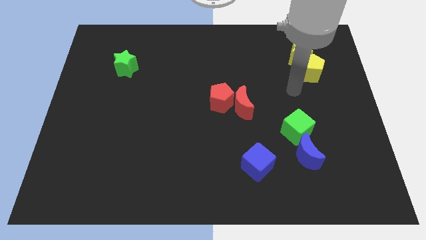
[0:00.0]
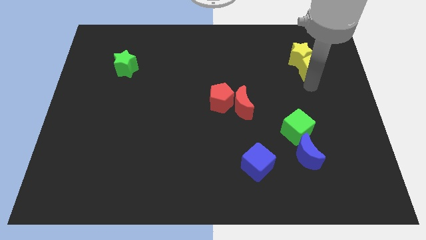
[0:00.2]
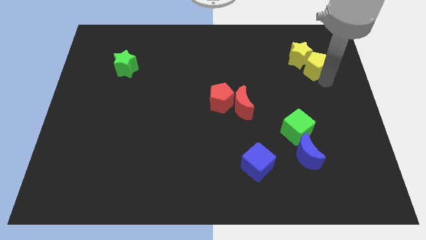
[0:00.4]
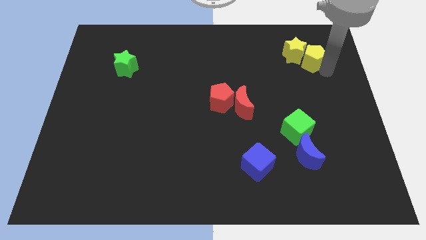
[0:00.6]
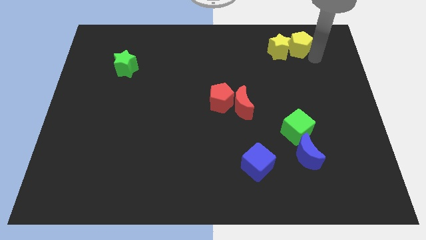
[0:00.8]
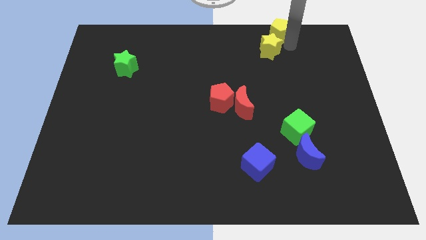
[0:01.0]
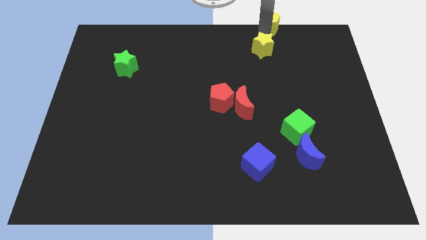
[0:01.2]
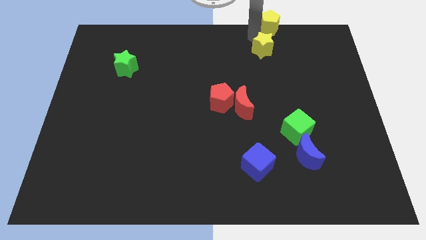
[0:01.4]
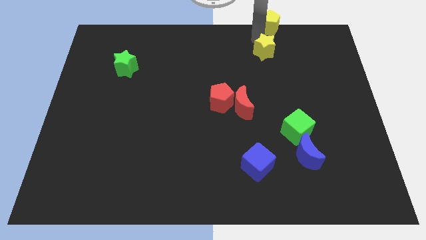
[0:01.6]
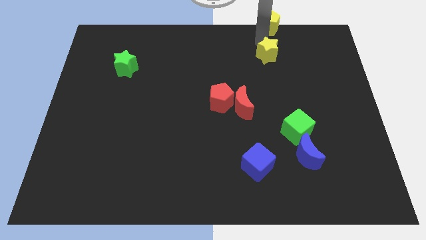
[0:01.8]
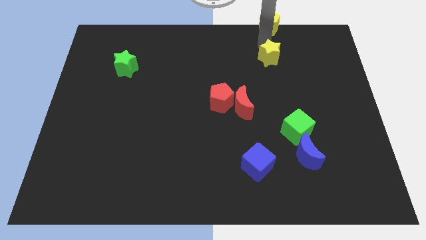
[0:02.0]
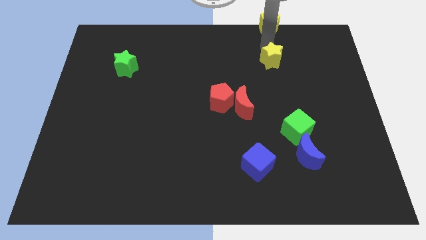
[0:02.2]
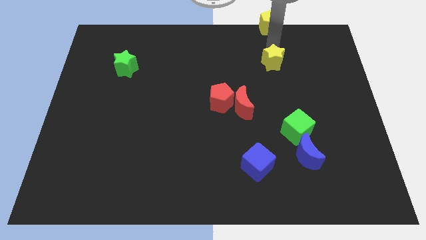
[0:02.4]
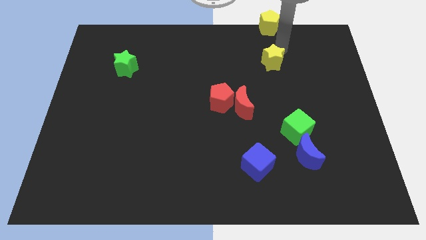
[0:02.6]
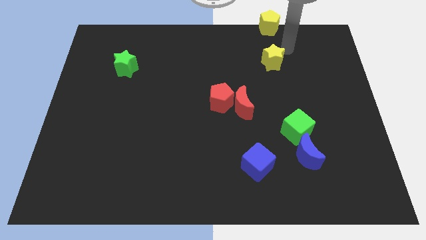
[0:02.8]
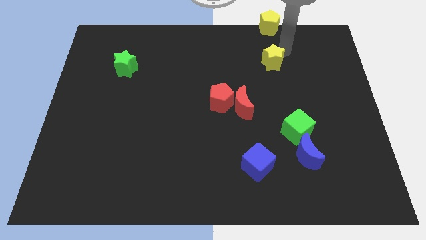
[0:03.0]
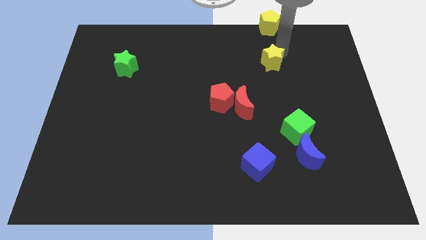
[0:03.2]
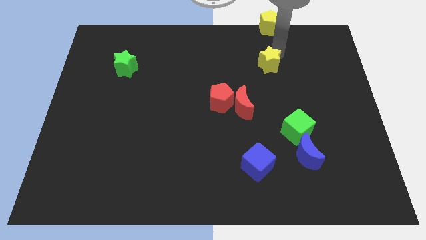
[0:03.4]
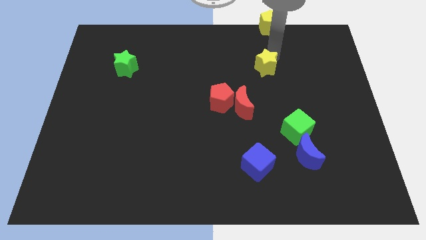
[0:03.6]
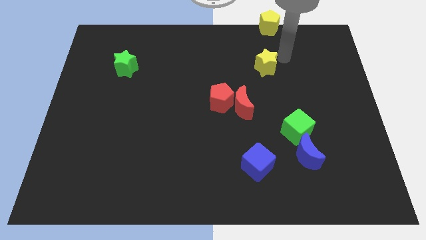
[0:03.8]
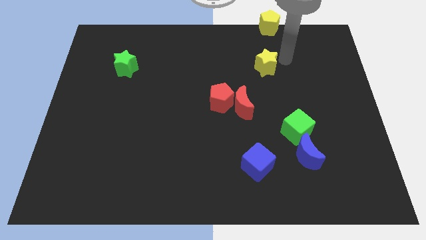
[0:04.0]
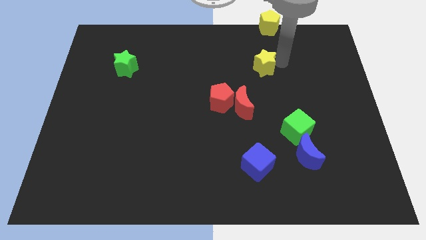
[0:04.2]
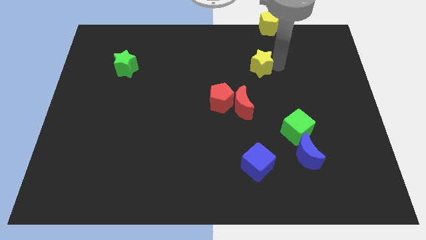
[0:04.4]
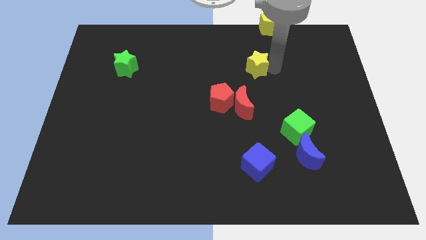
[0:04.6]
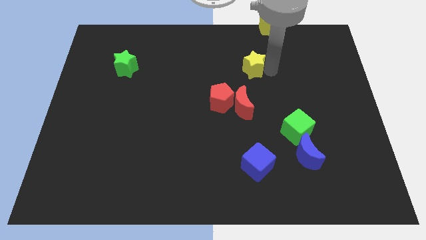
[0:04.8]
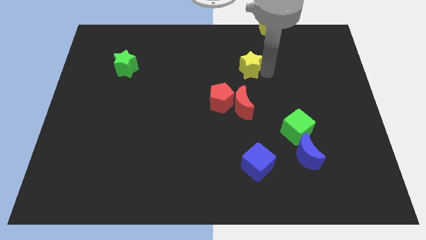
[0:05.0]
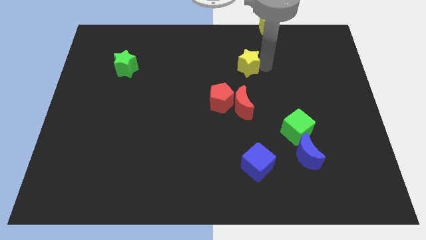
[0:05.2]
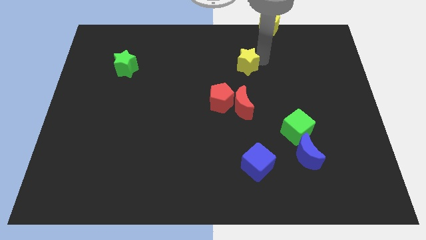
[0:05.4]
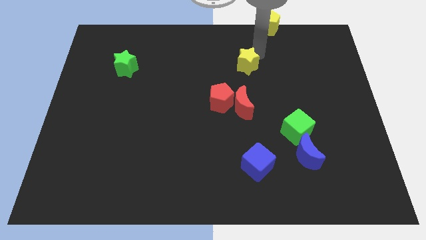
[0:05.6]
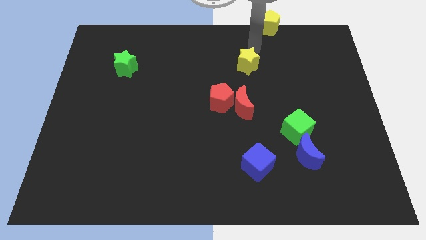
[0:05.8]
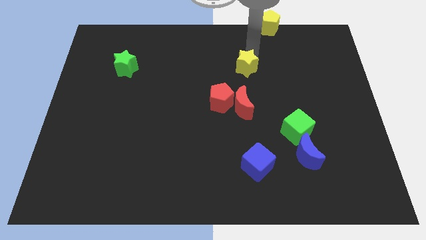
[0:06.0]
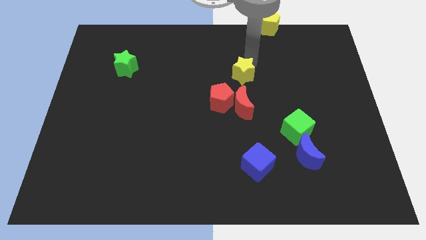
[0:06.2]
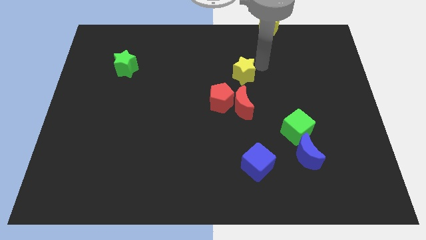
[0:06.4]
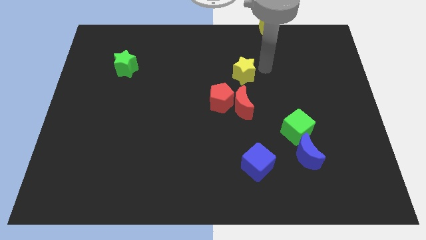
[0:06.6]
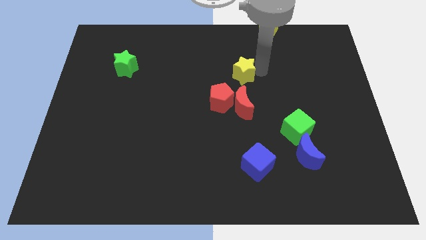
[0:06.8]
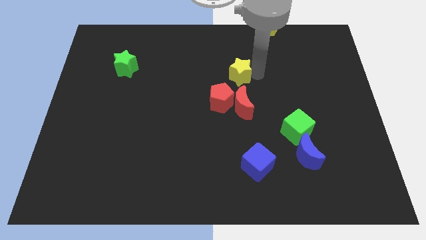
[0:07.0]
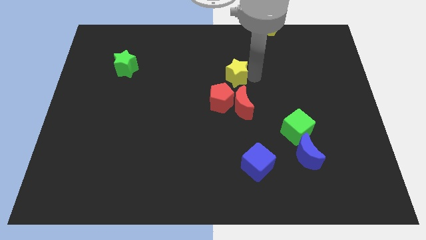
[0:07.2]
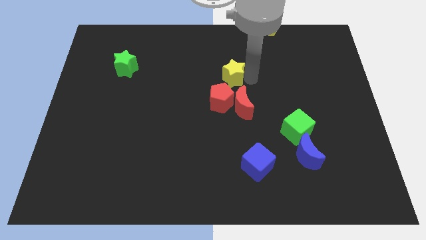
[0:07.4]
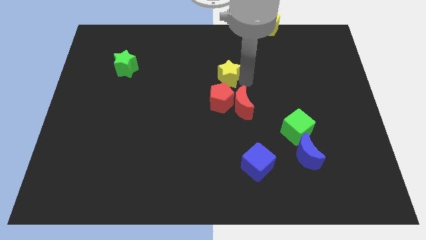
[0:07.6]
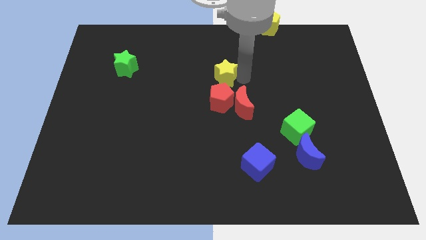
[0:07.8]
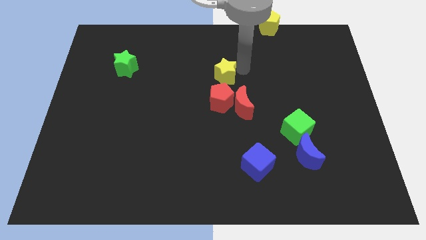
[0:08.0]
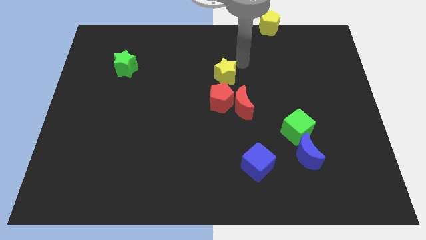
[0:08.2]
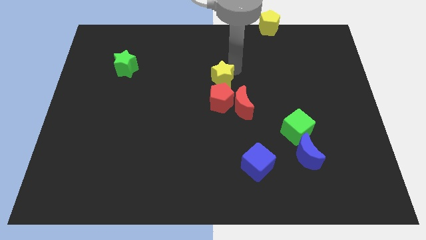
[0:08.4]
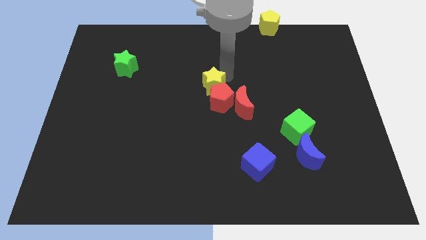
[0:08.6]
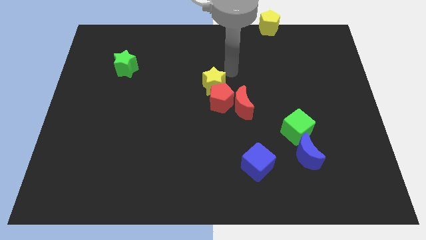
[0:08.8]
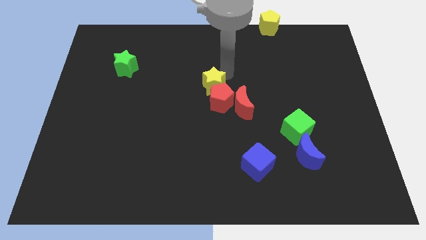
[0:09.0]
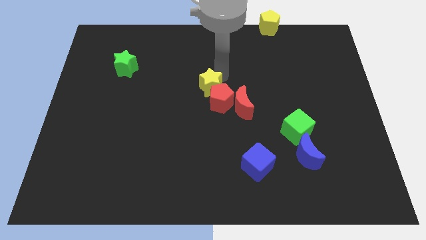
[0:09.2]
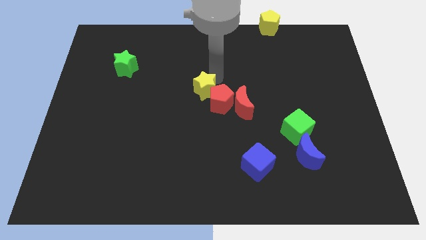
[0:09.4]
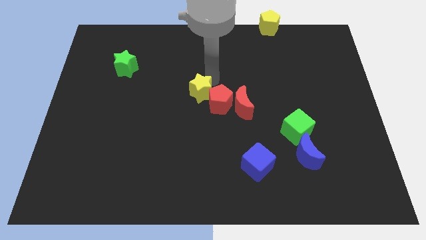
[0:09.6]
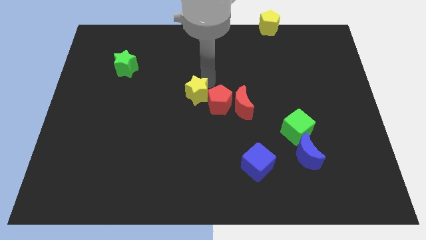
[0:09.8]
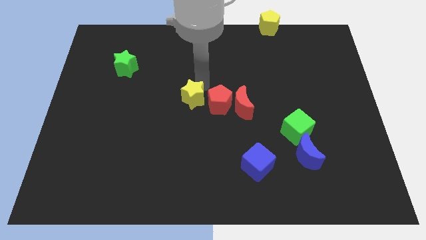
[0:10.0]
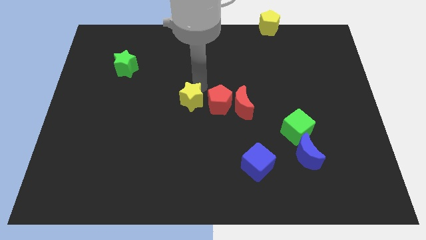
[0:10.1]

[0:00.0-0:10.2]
push the yellow star to the bottom left side of the red pentagon

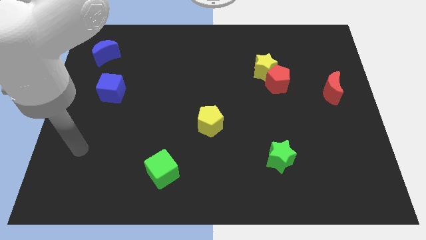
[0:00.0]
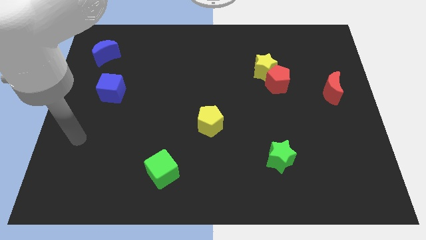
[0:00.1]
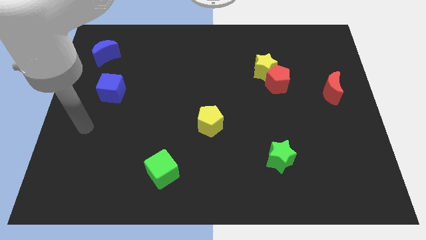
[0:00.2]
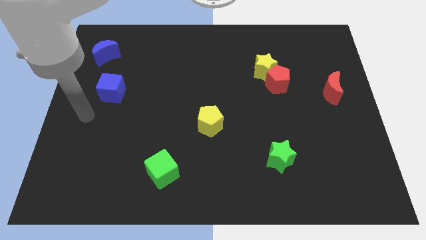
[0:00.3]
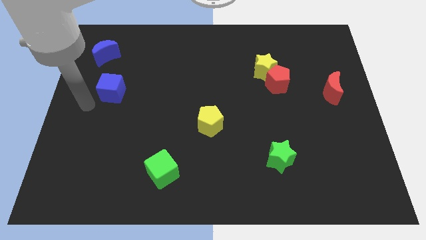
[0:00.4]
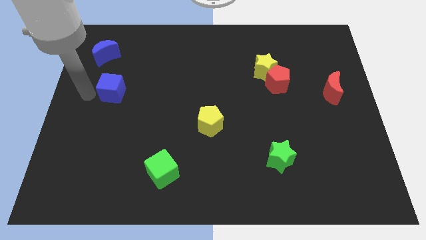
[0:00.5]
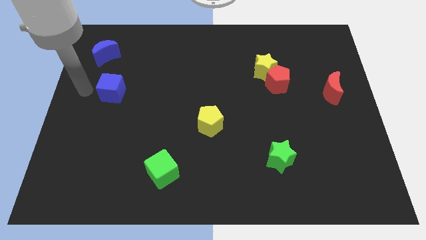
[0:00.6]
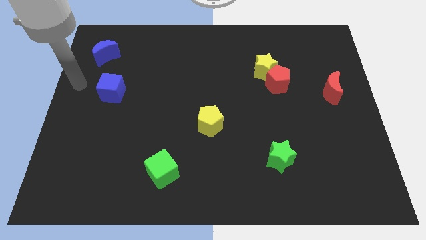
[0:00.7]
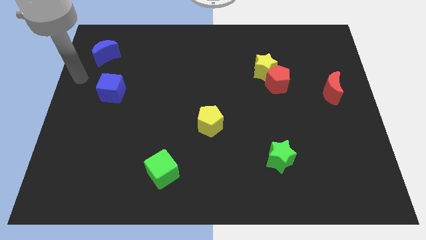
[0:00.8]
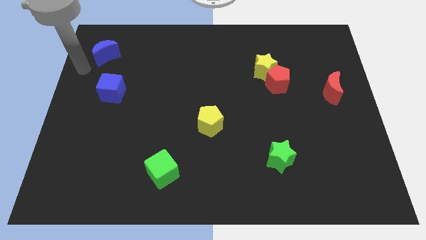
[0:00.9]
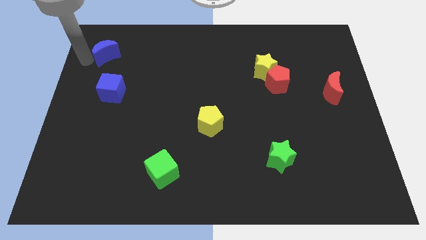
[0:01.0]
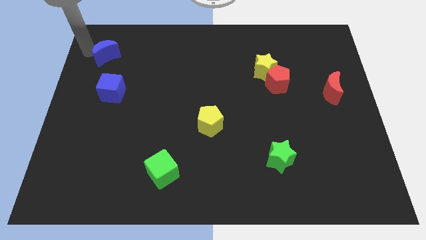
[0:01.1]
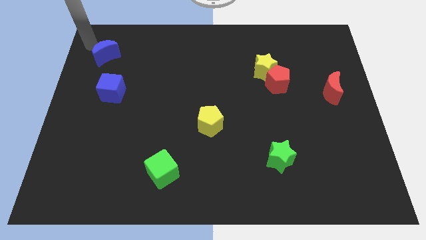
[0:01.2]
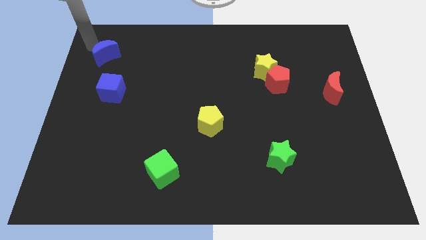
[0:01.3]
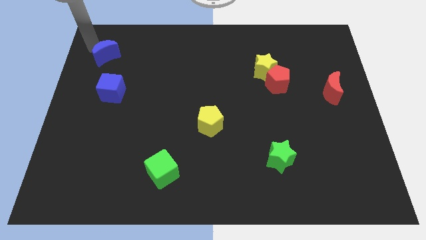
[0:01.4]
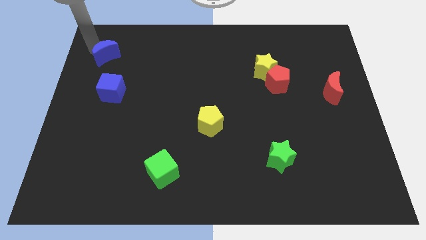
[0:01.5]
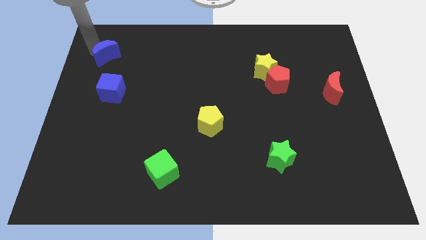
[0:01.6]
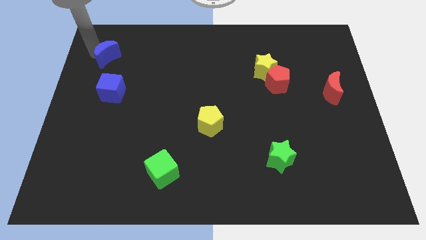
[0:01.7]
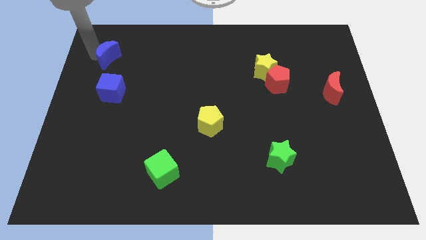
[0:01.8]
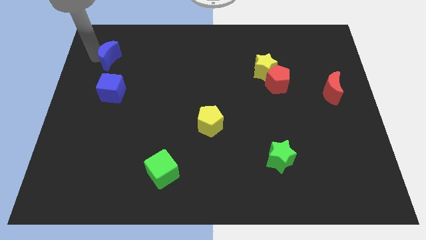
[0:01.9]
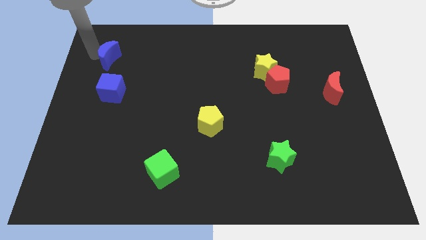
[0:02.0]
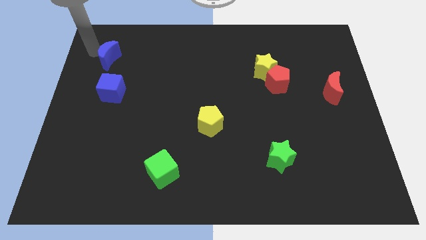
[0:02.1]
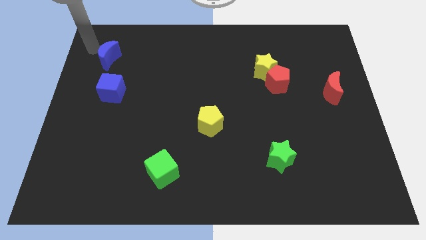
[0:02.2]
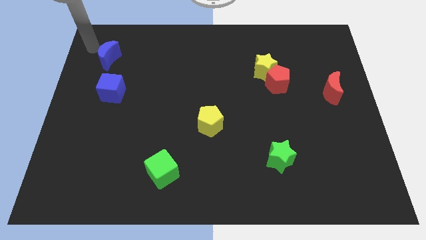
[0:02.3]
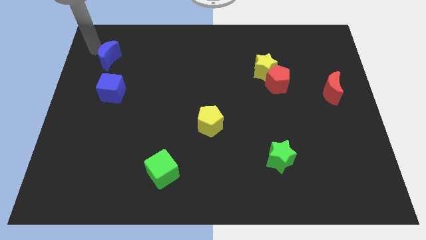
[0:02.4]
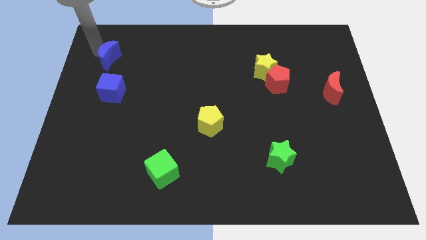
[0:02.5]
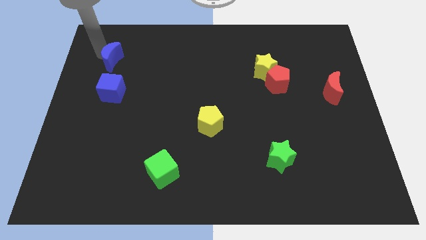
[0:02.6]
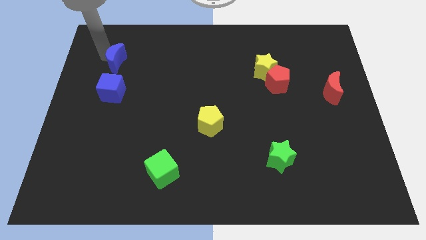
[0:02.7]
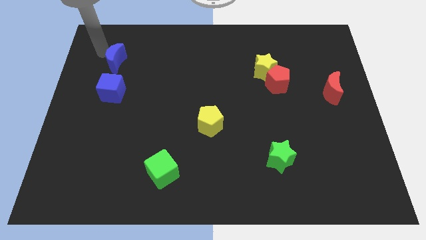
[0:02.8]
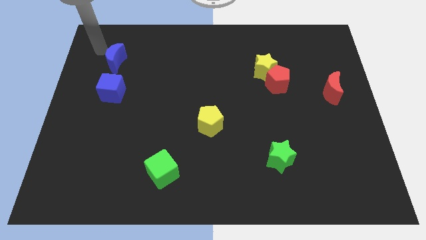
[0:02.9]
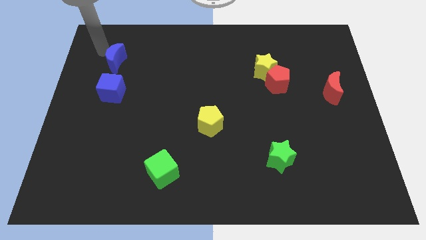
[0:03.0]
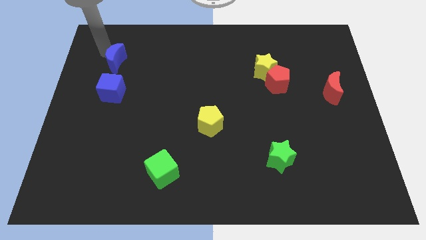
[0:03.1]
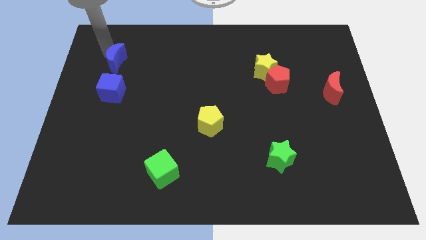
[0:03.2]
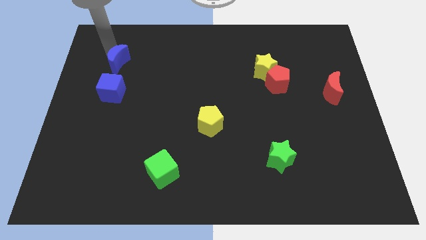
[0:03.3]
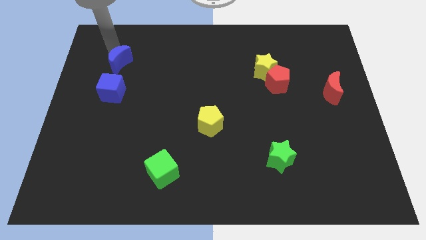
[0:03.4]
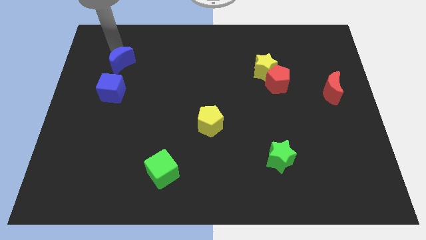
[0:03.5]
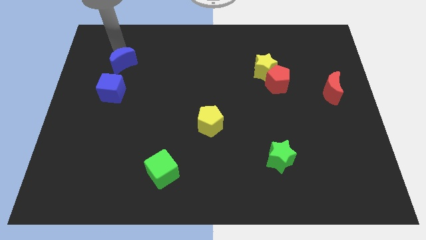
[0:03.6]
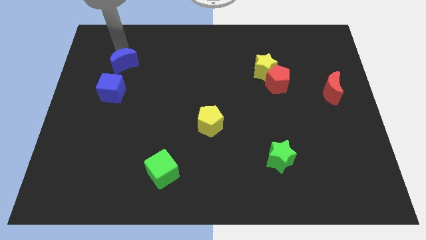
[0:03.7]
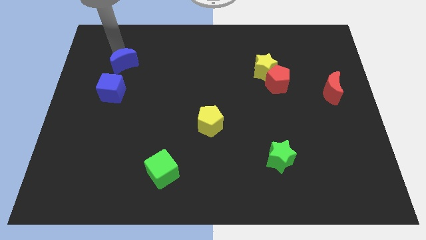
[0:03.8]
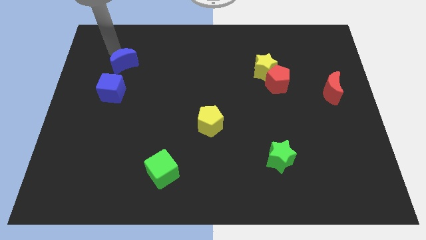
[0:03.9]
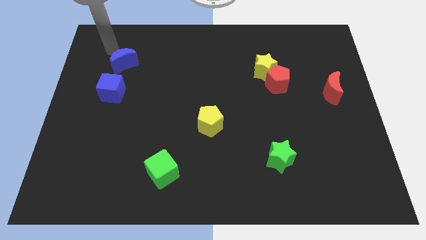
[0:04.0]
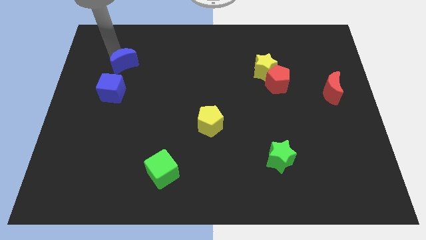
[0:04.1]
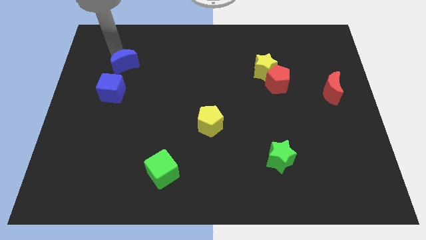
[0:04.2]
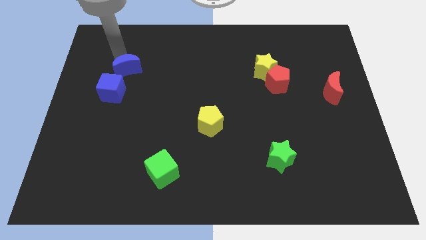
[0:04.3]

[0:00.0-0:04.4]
push the blue moon to the top right of the blue cube
